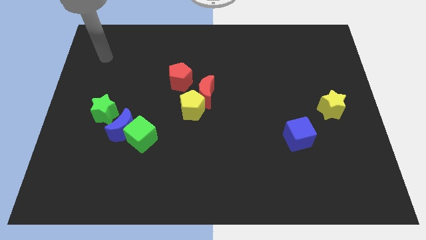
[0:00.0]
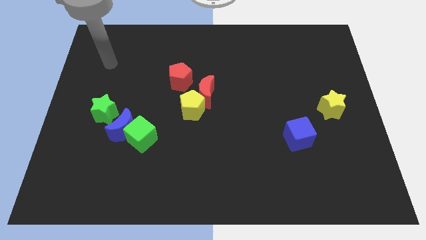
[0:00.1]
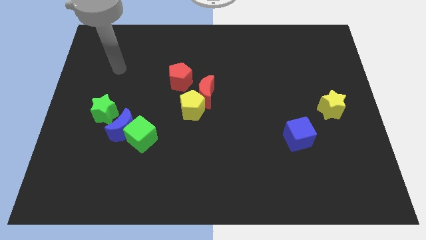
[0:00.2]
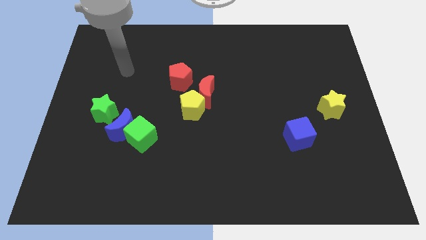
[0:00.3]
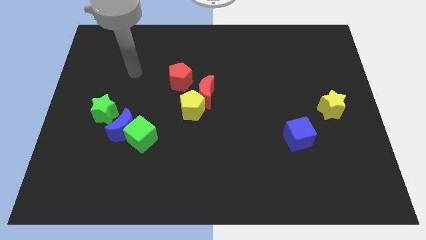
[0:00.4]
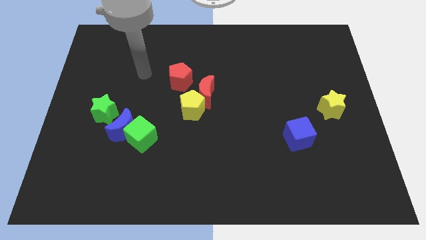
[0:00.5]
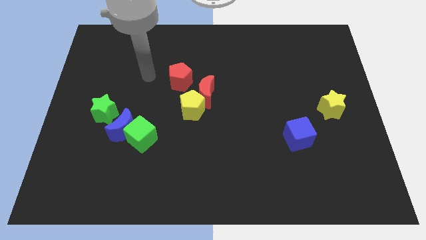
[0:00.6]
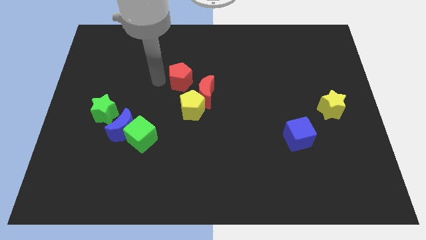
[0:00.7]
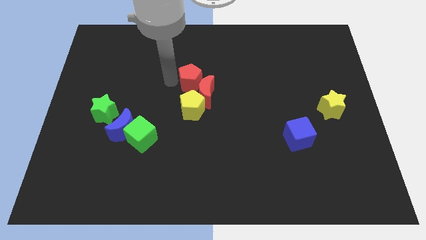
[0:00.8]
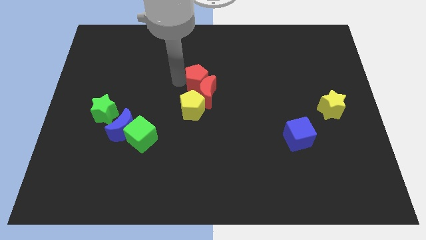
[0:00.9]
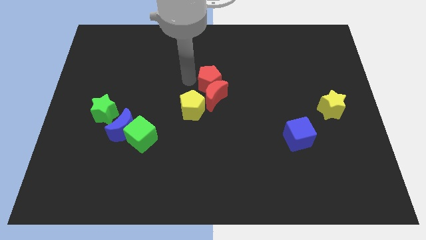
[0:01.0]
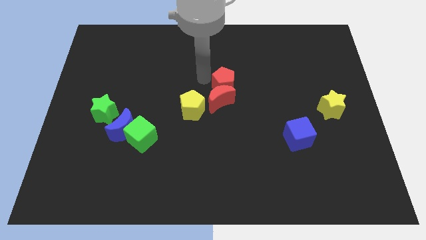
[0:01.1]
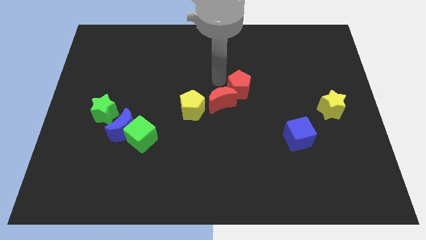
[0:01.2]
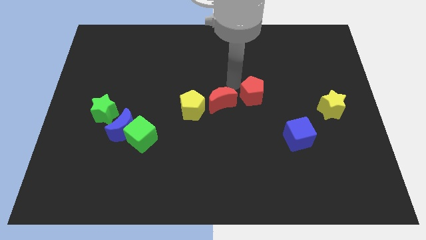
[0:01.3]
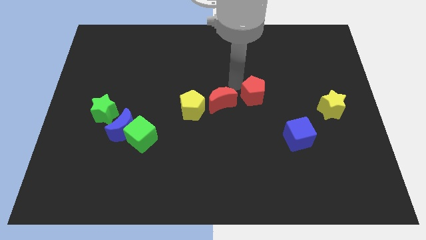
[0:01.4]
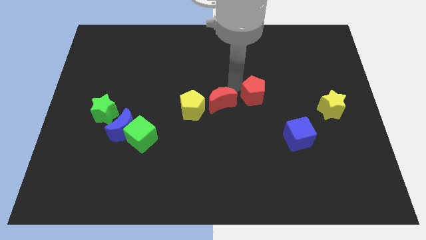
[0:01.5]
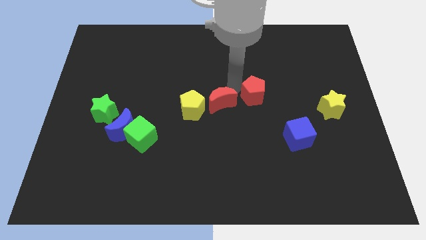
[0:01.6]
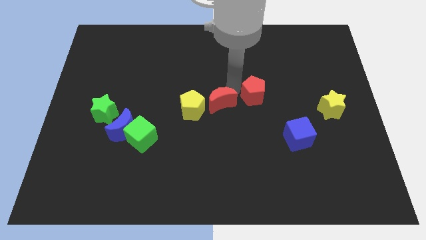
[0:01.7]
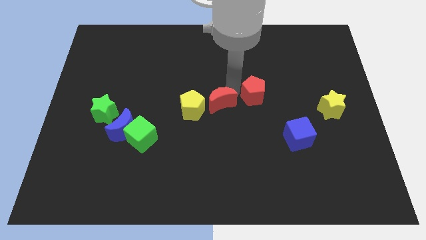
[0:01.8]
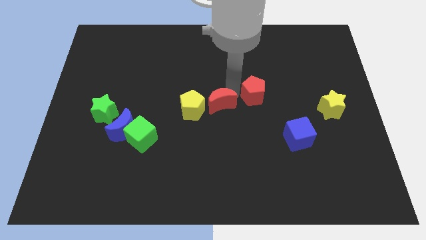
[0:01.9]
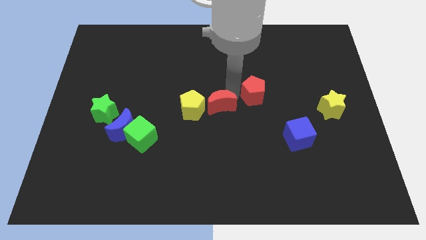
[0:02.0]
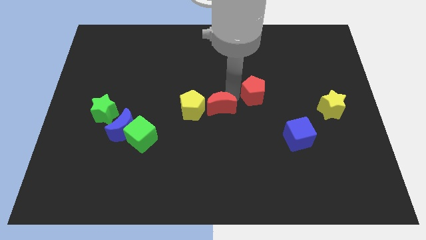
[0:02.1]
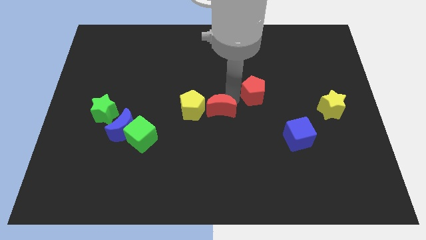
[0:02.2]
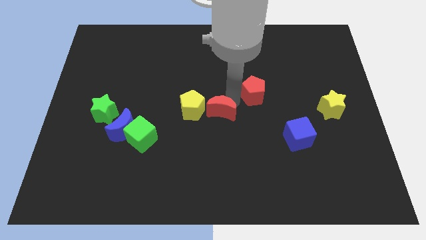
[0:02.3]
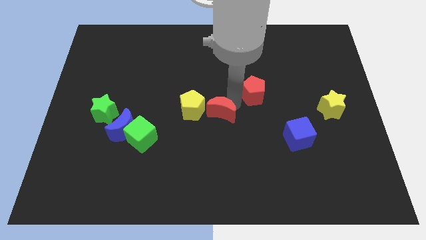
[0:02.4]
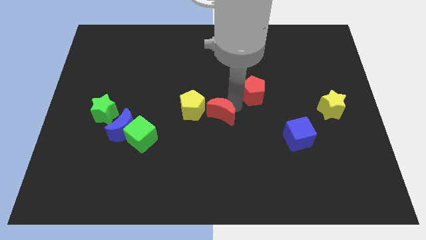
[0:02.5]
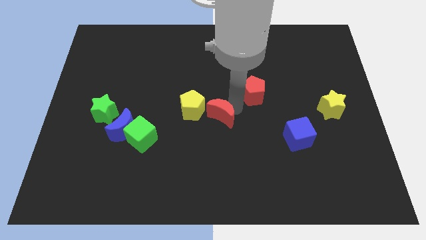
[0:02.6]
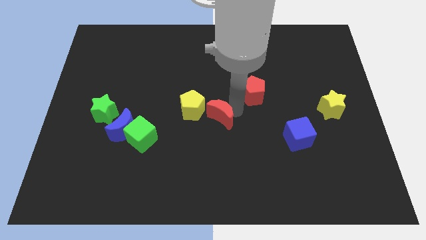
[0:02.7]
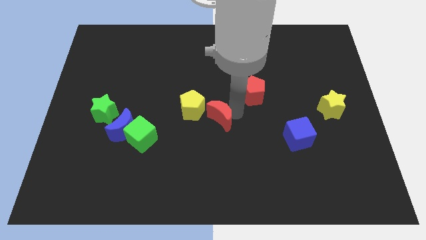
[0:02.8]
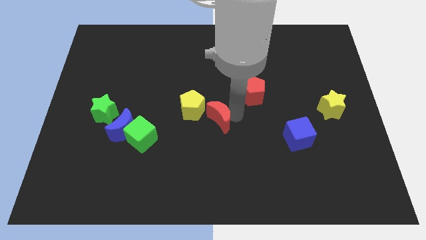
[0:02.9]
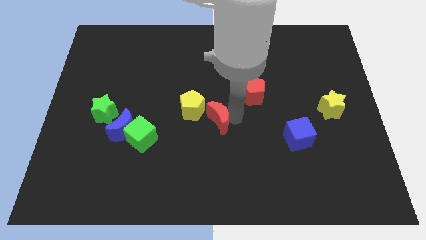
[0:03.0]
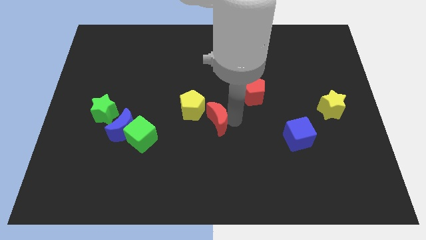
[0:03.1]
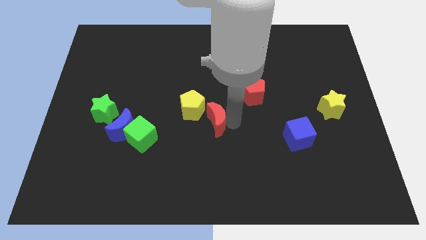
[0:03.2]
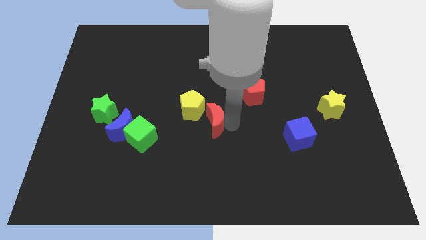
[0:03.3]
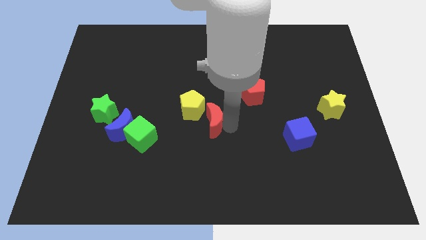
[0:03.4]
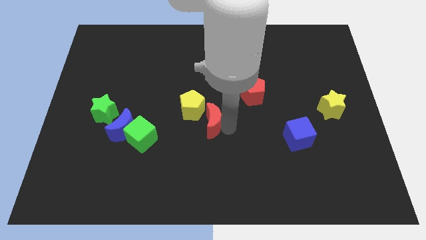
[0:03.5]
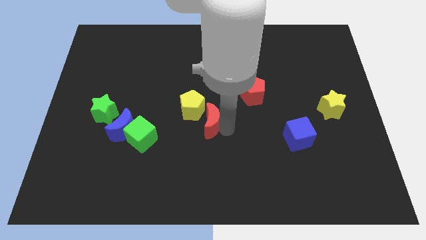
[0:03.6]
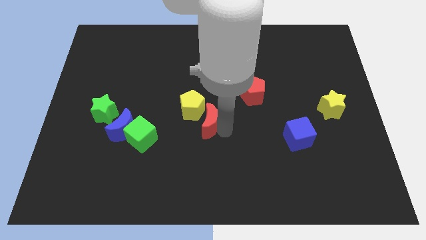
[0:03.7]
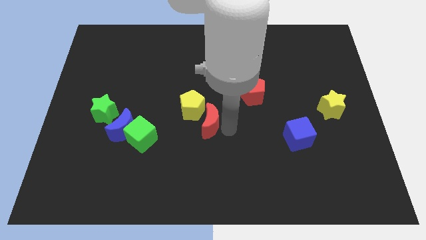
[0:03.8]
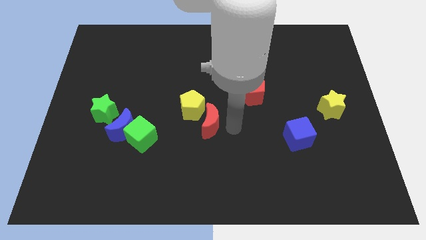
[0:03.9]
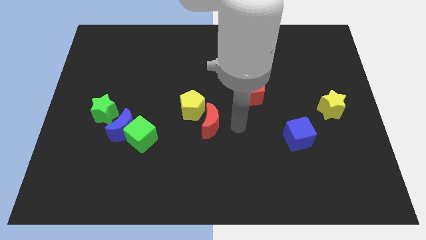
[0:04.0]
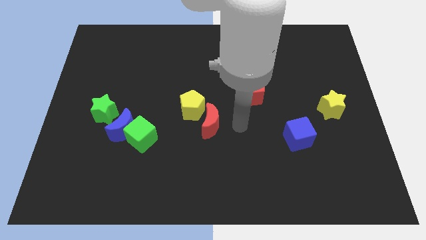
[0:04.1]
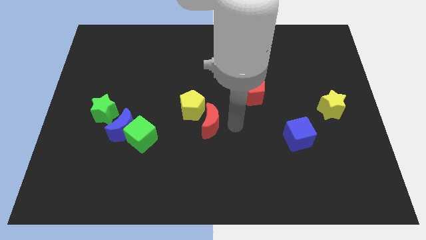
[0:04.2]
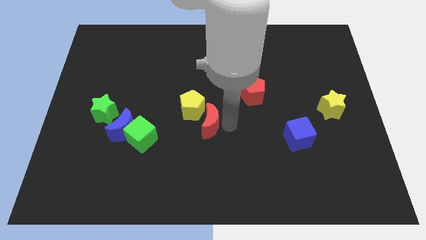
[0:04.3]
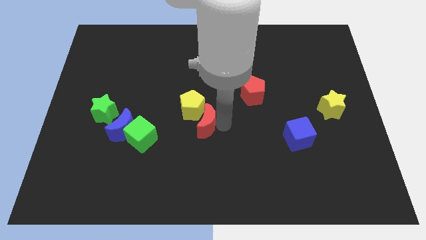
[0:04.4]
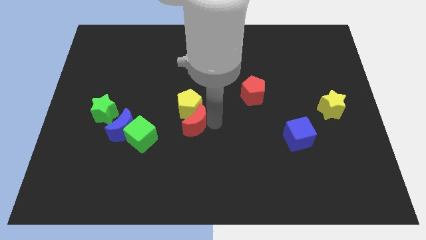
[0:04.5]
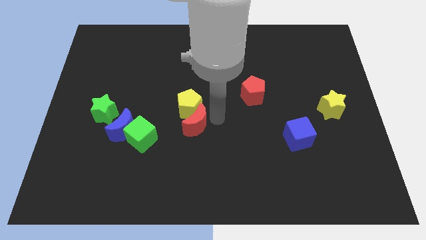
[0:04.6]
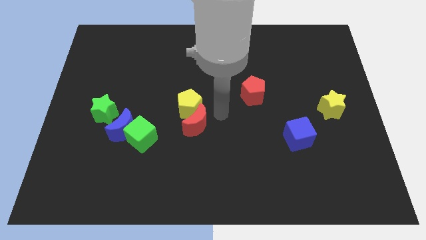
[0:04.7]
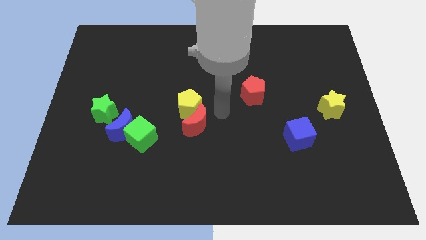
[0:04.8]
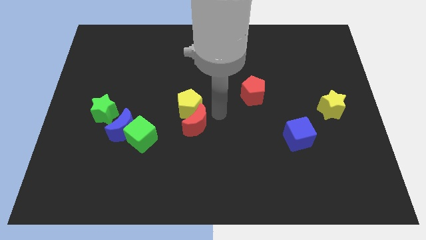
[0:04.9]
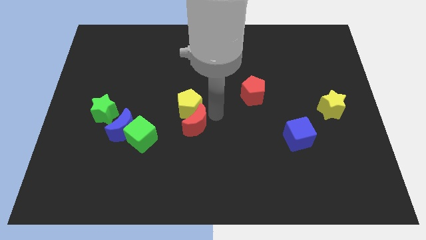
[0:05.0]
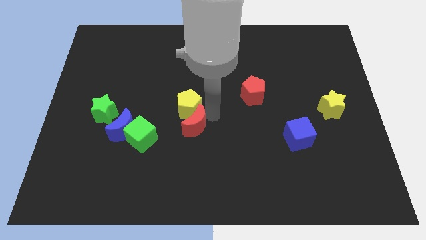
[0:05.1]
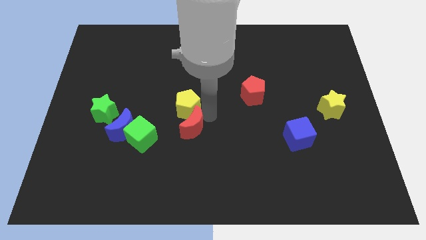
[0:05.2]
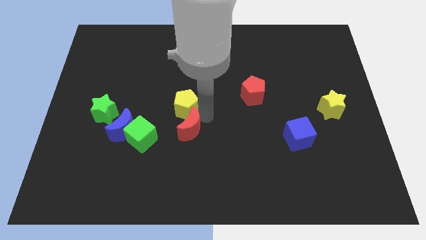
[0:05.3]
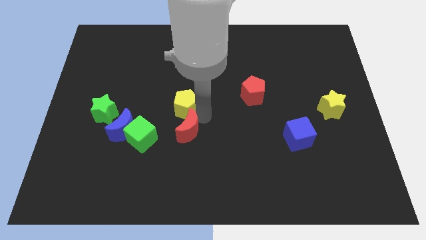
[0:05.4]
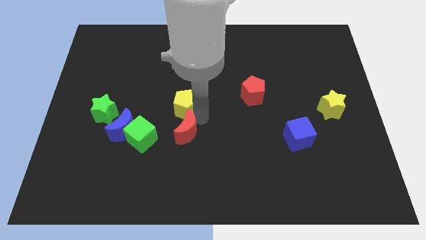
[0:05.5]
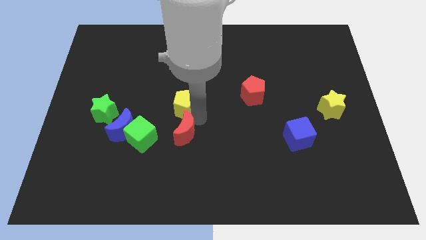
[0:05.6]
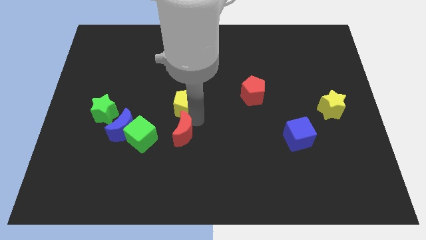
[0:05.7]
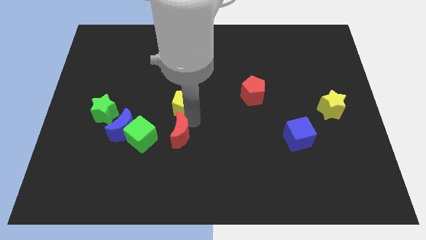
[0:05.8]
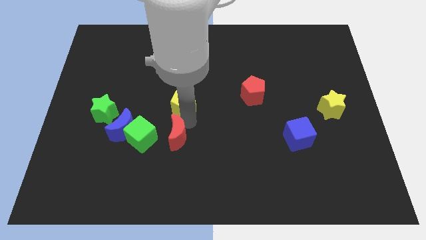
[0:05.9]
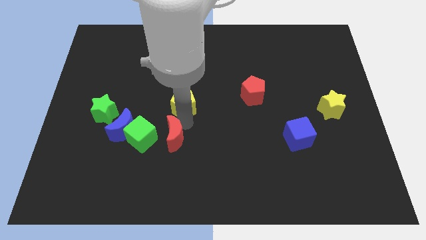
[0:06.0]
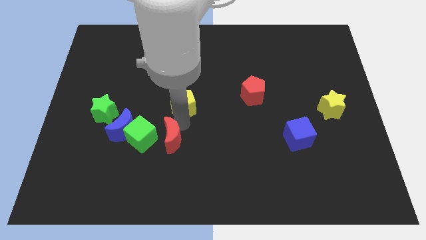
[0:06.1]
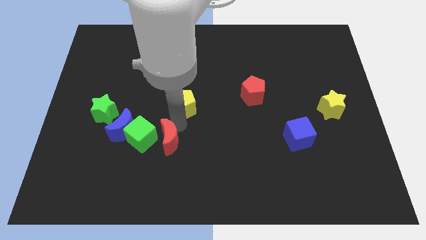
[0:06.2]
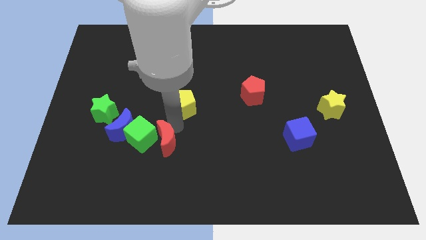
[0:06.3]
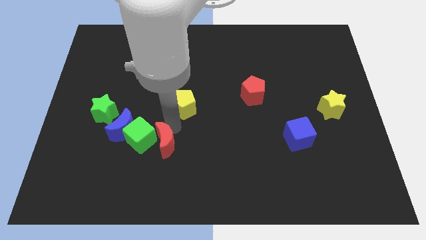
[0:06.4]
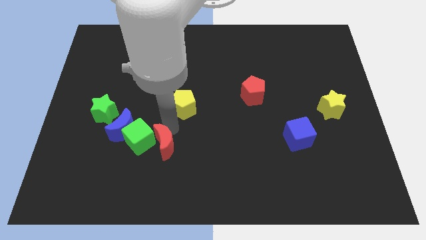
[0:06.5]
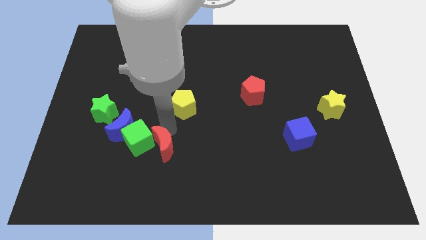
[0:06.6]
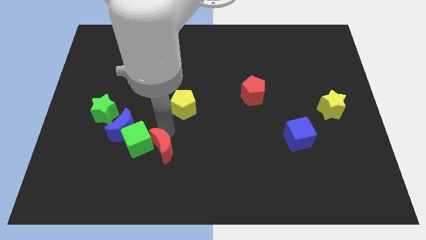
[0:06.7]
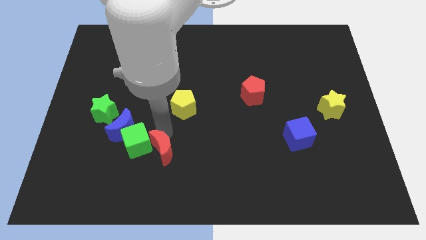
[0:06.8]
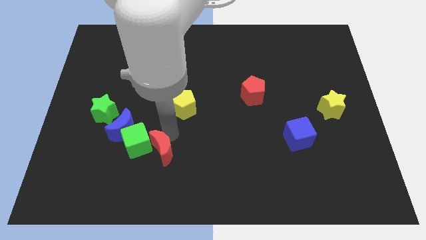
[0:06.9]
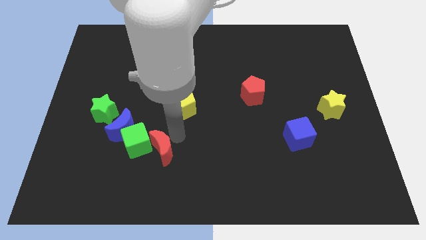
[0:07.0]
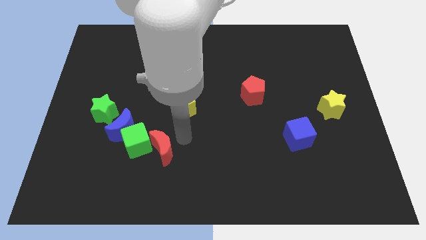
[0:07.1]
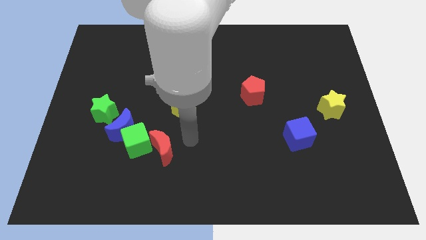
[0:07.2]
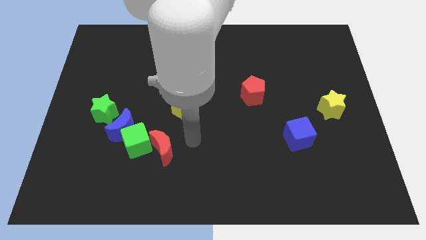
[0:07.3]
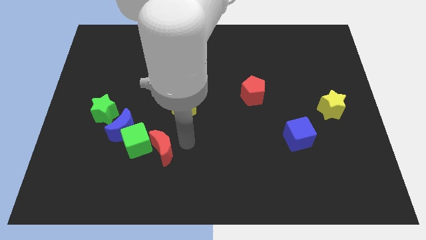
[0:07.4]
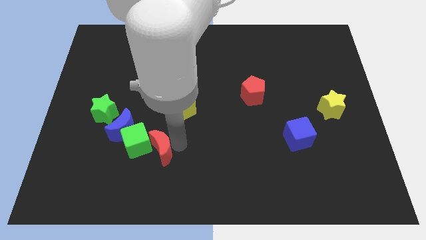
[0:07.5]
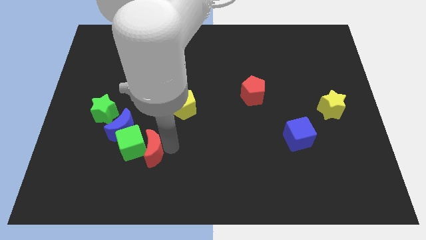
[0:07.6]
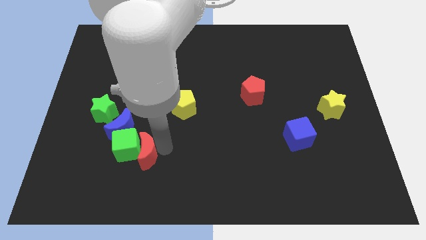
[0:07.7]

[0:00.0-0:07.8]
move the red moon downwards and to the left diagonally
